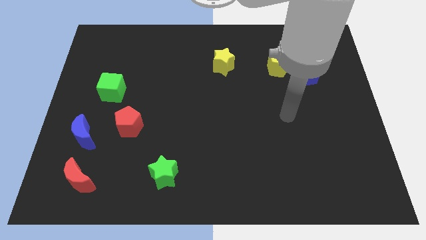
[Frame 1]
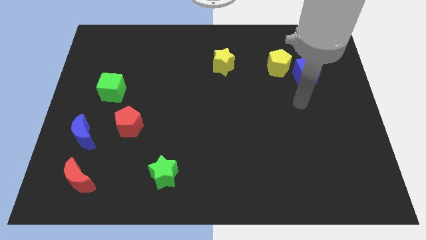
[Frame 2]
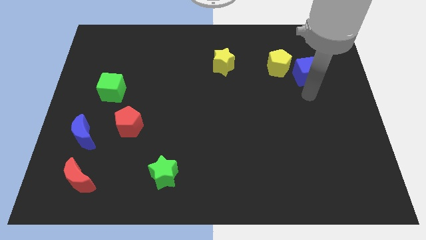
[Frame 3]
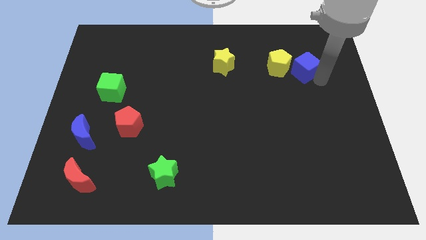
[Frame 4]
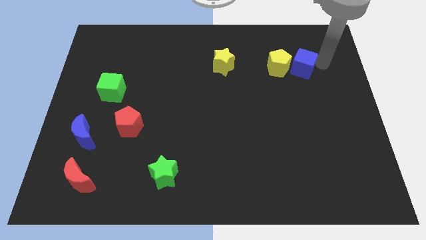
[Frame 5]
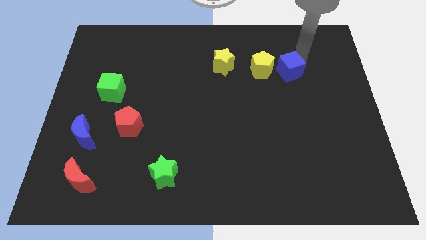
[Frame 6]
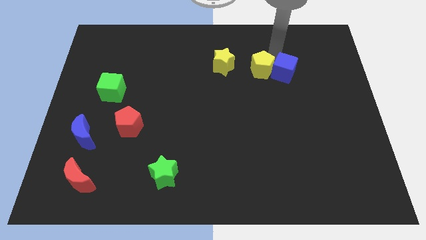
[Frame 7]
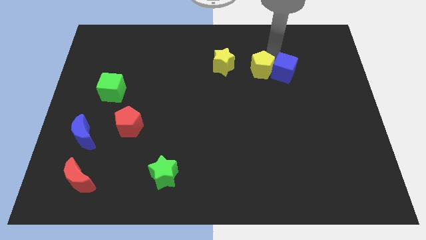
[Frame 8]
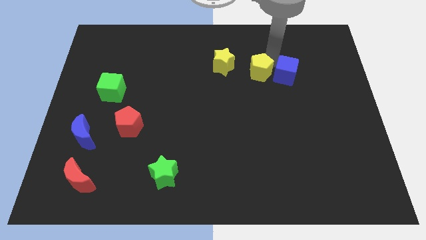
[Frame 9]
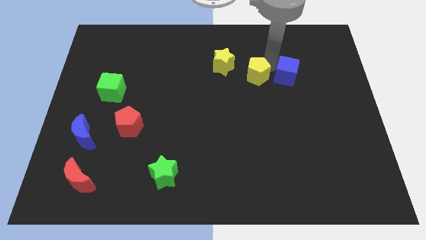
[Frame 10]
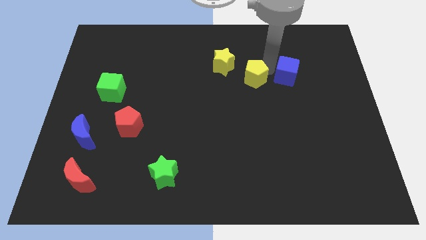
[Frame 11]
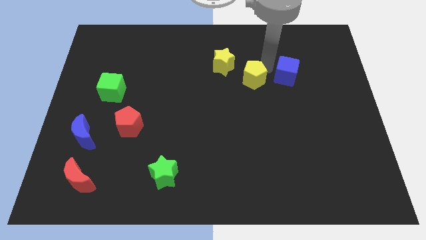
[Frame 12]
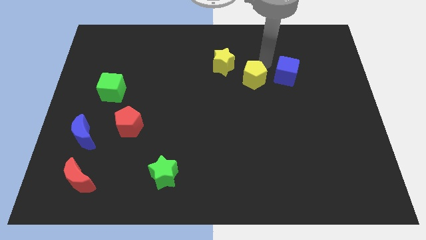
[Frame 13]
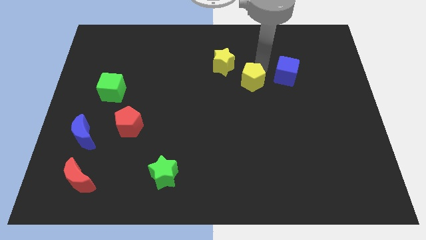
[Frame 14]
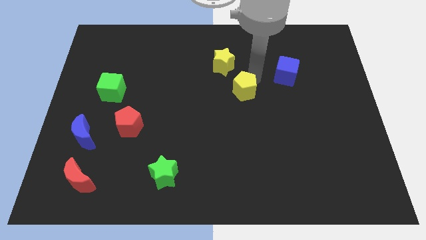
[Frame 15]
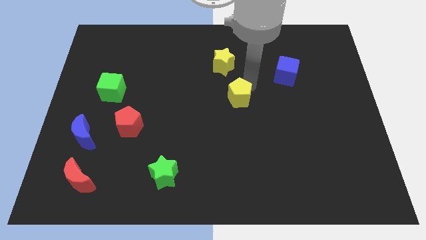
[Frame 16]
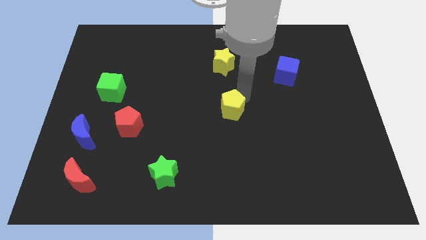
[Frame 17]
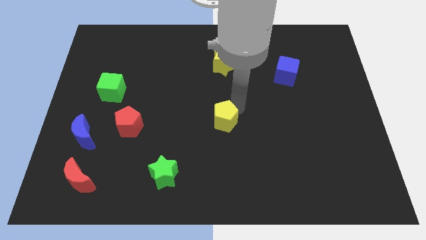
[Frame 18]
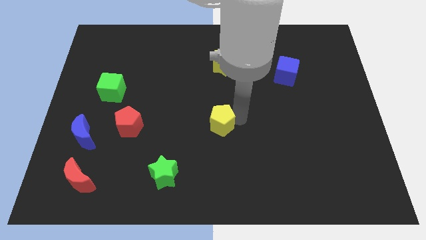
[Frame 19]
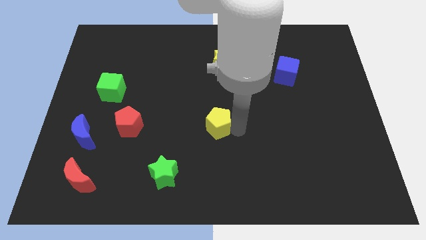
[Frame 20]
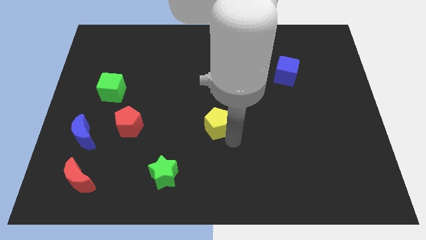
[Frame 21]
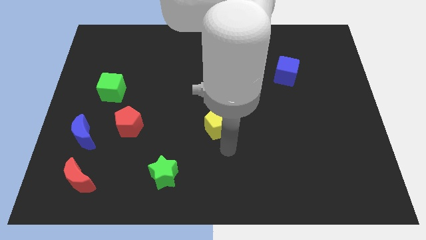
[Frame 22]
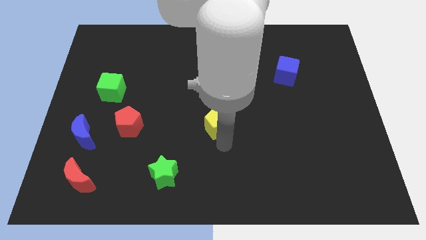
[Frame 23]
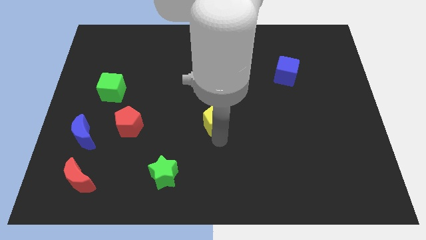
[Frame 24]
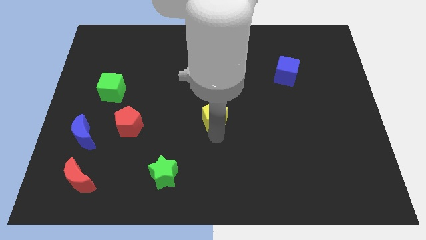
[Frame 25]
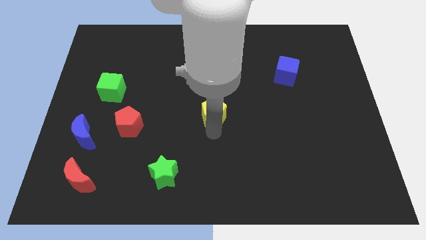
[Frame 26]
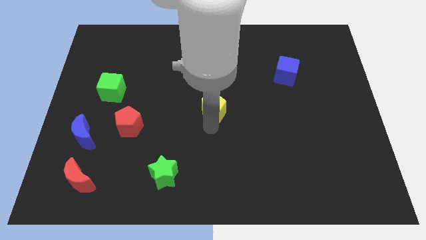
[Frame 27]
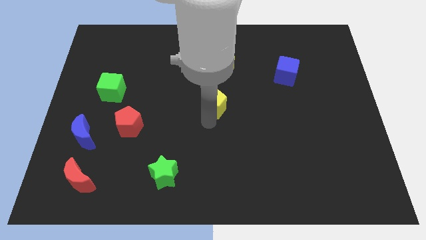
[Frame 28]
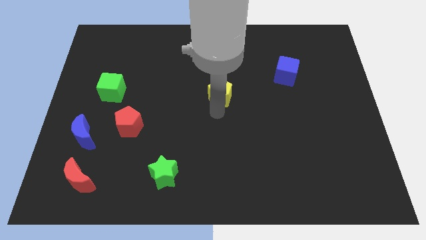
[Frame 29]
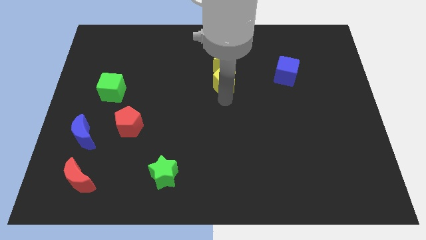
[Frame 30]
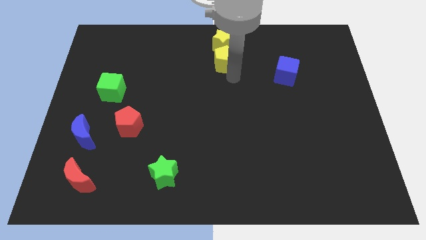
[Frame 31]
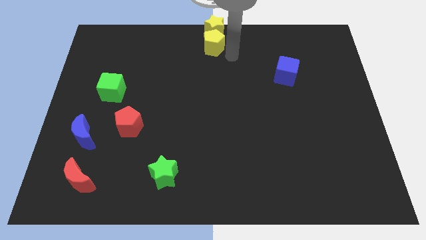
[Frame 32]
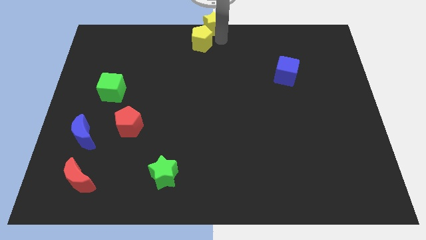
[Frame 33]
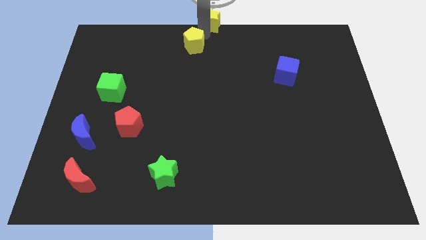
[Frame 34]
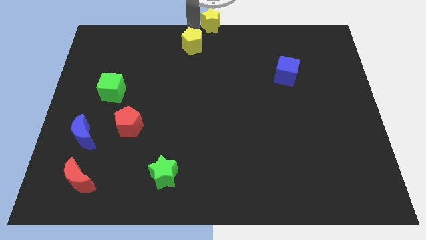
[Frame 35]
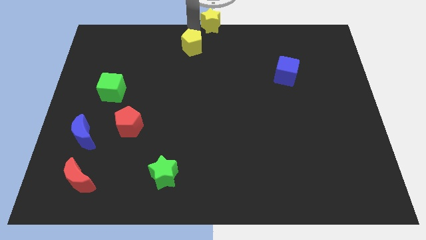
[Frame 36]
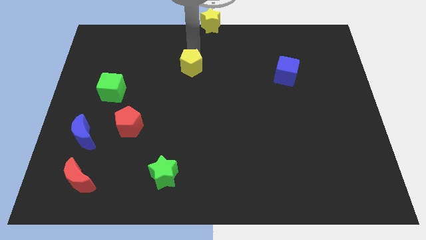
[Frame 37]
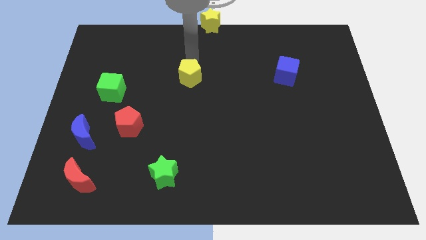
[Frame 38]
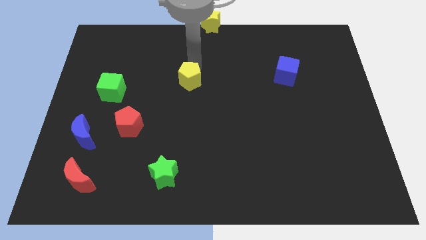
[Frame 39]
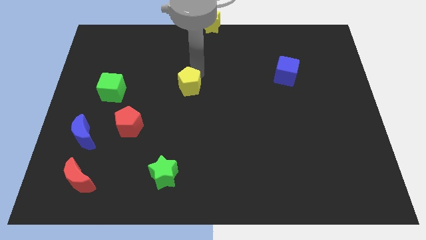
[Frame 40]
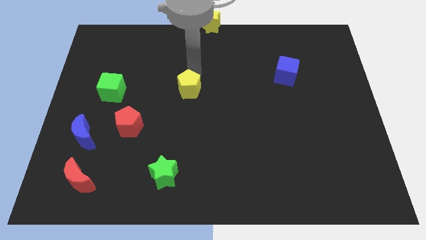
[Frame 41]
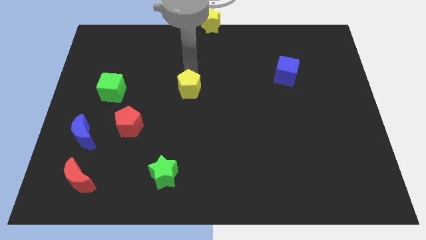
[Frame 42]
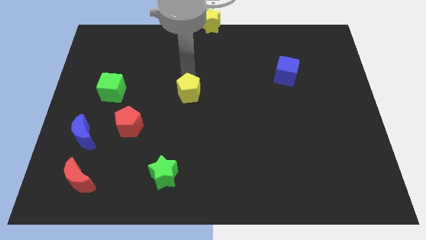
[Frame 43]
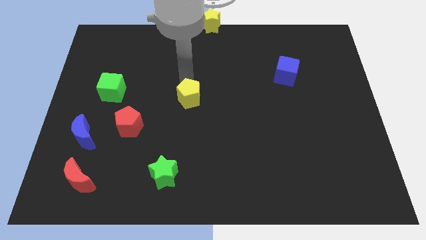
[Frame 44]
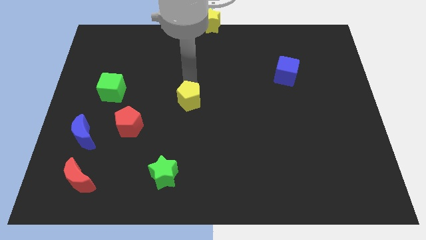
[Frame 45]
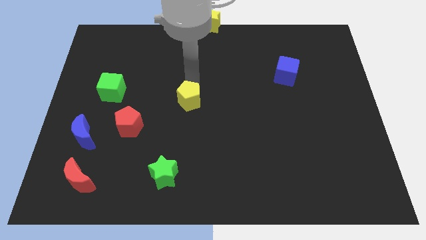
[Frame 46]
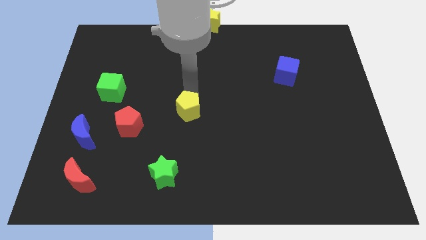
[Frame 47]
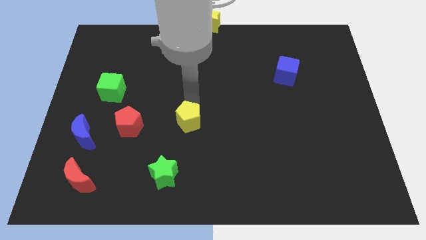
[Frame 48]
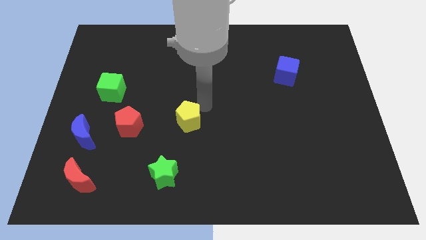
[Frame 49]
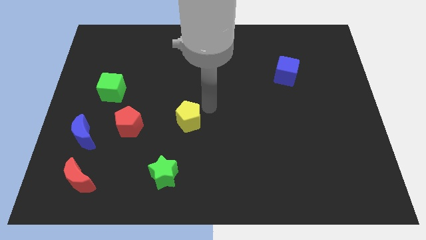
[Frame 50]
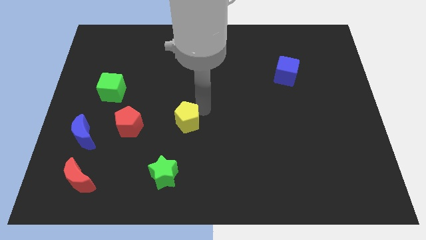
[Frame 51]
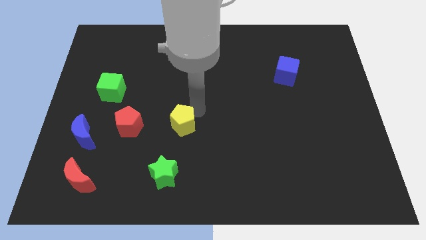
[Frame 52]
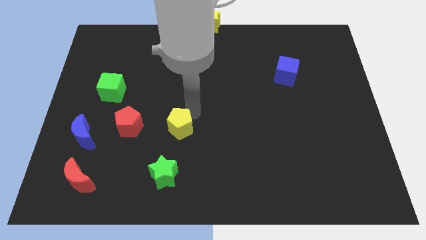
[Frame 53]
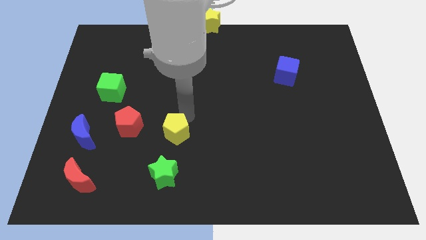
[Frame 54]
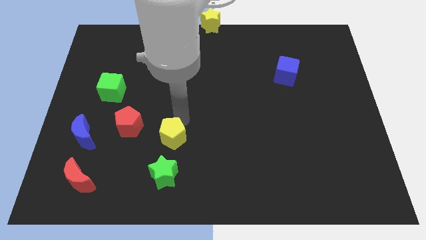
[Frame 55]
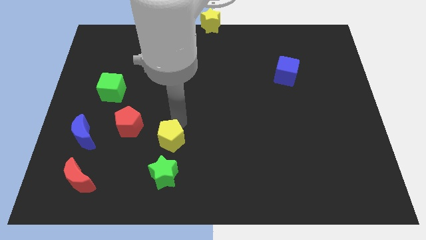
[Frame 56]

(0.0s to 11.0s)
push the yellow pentagon diagonally down and to the right of the red pentagon
